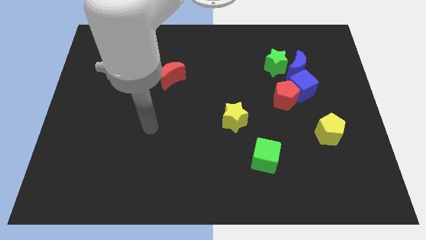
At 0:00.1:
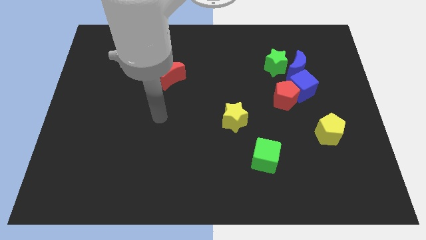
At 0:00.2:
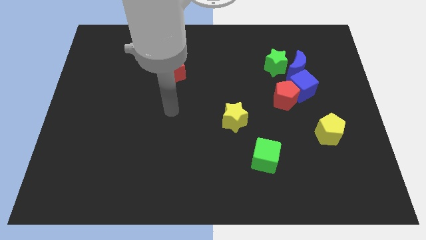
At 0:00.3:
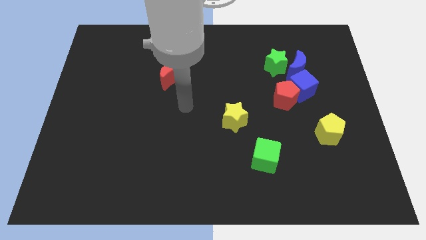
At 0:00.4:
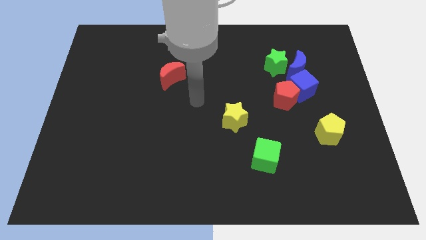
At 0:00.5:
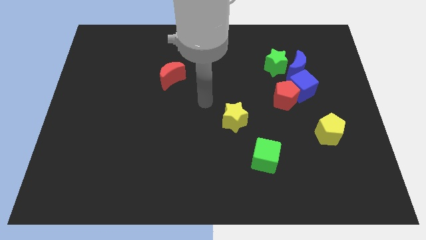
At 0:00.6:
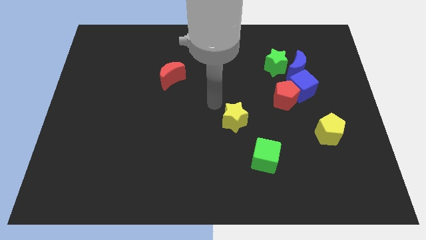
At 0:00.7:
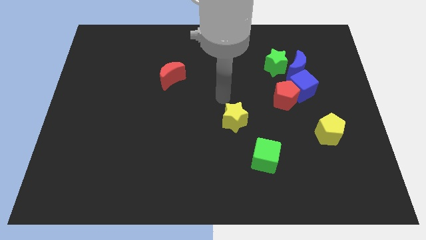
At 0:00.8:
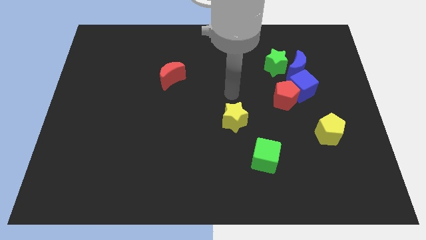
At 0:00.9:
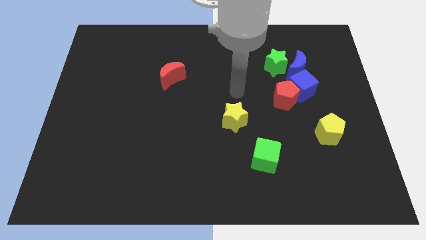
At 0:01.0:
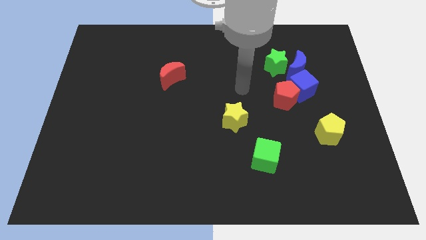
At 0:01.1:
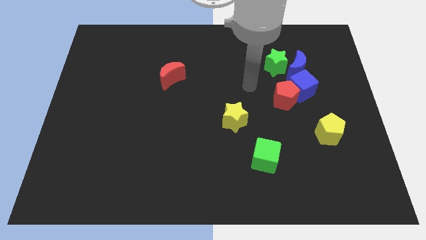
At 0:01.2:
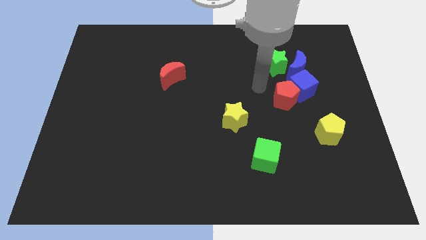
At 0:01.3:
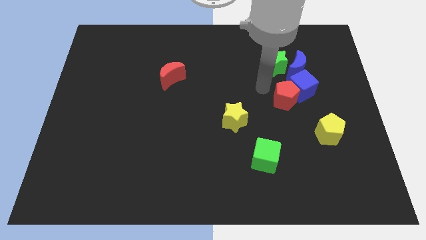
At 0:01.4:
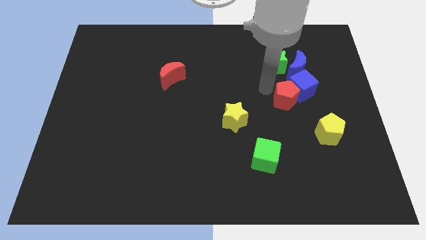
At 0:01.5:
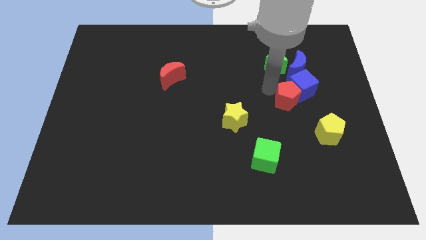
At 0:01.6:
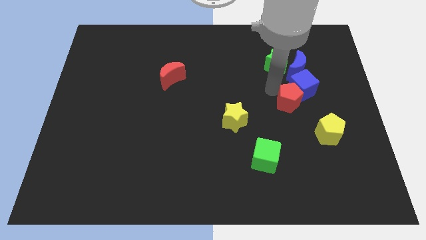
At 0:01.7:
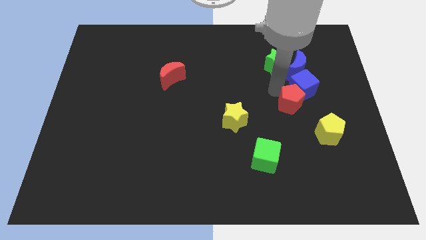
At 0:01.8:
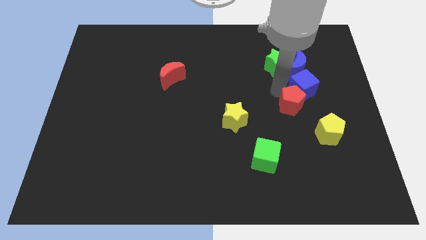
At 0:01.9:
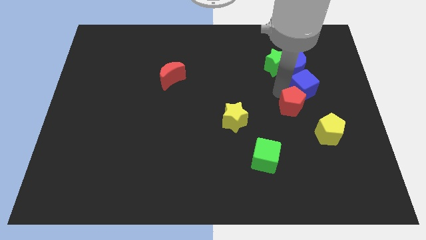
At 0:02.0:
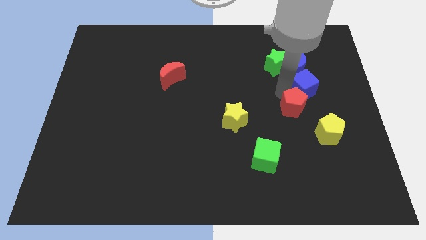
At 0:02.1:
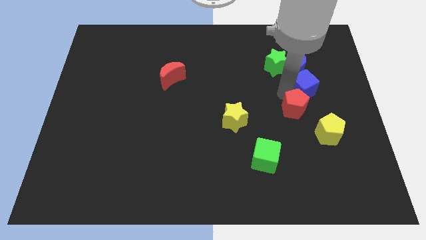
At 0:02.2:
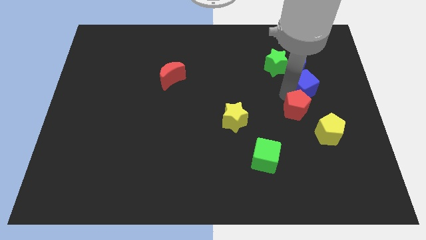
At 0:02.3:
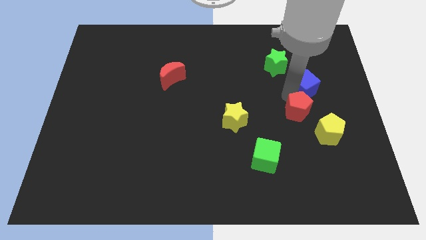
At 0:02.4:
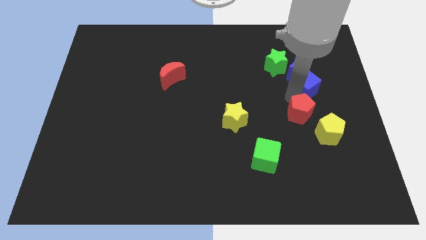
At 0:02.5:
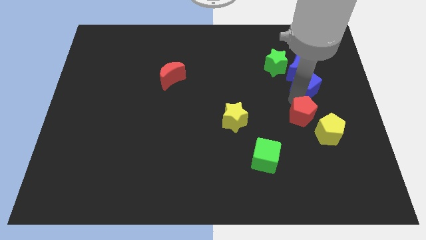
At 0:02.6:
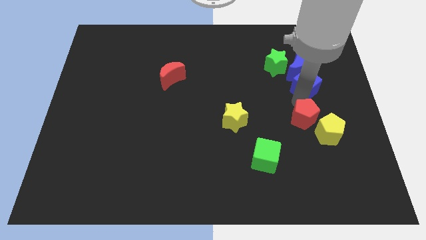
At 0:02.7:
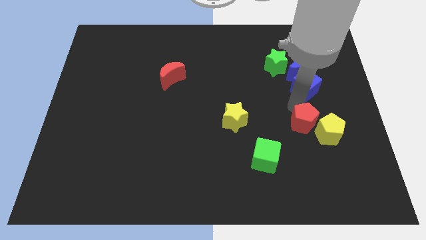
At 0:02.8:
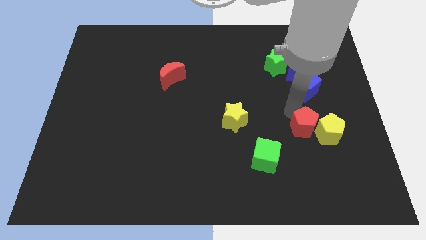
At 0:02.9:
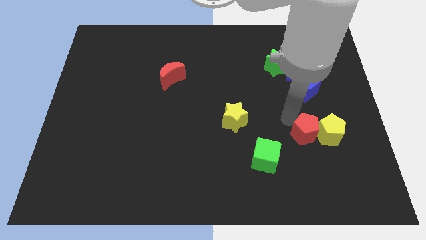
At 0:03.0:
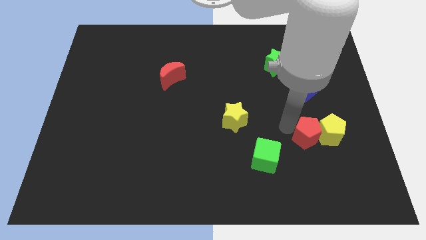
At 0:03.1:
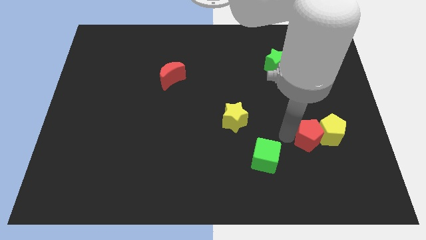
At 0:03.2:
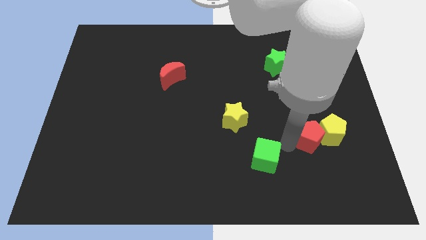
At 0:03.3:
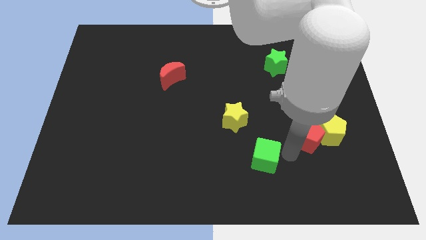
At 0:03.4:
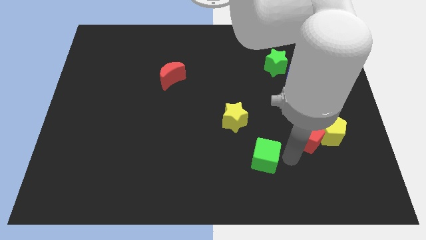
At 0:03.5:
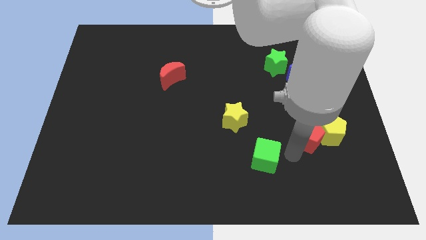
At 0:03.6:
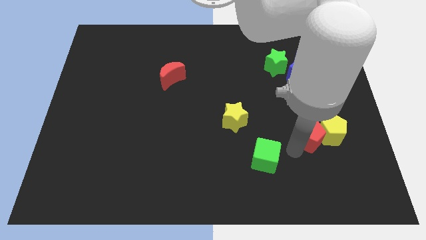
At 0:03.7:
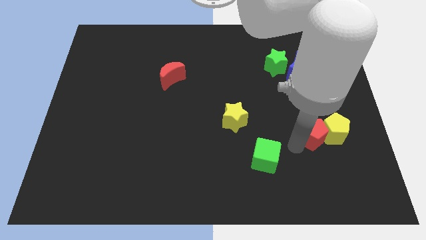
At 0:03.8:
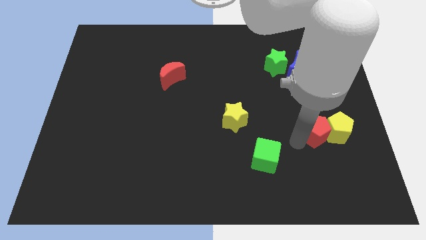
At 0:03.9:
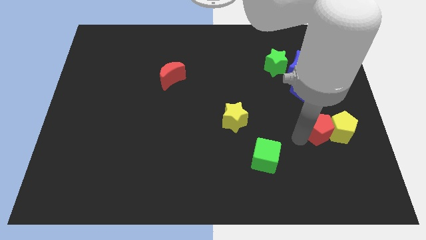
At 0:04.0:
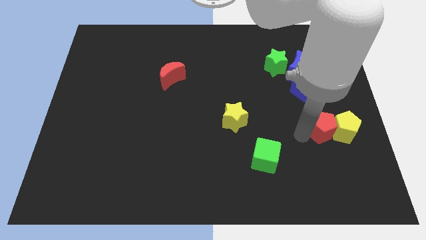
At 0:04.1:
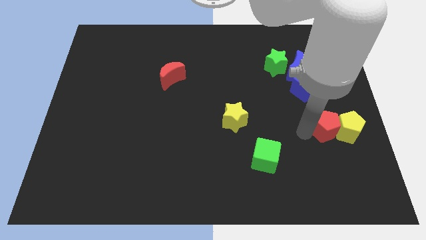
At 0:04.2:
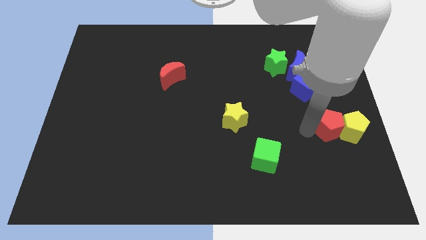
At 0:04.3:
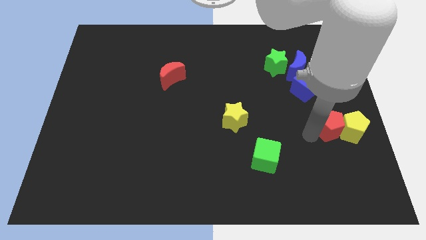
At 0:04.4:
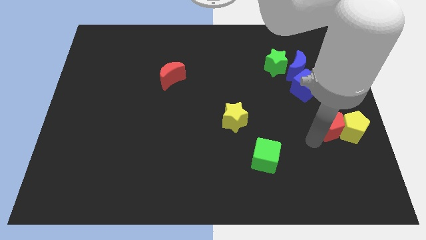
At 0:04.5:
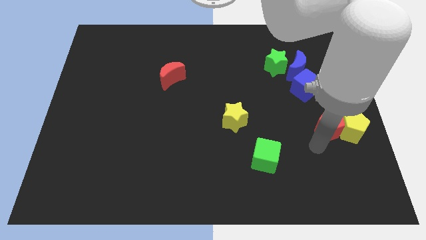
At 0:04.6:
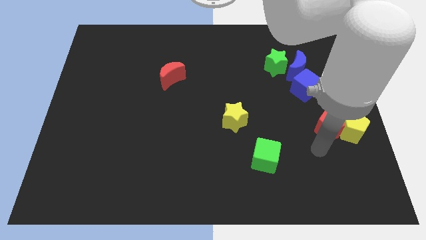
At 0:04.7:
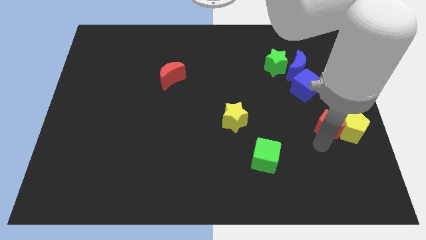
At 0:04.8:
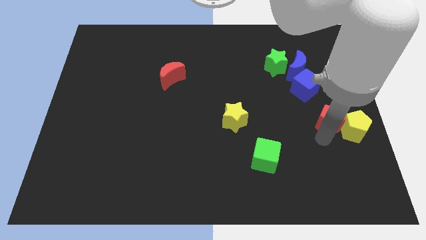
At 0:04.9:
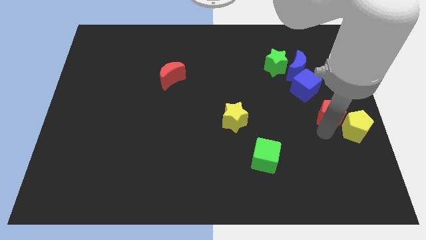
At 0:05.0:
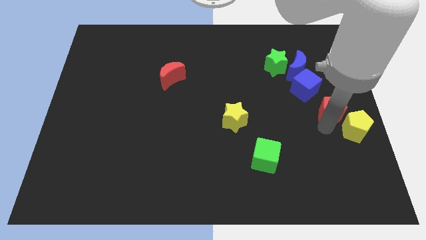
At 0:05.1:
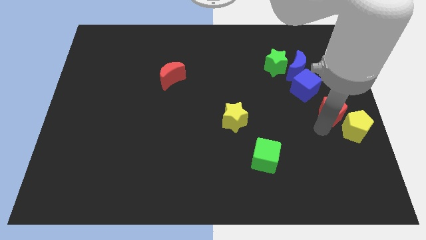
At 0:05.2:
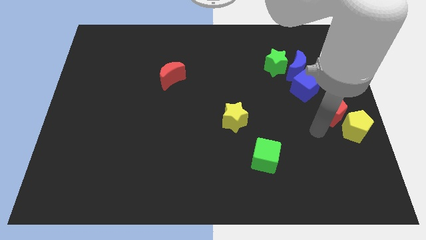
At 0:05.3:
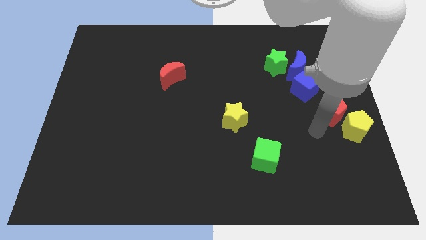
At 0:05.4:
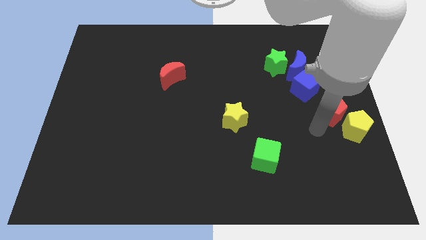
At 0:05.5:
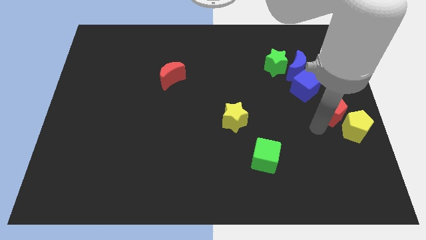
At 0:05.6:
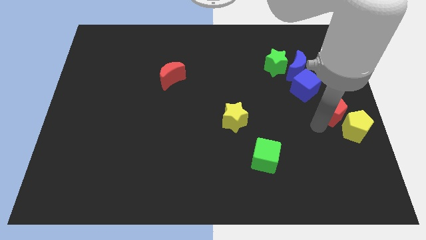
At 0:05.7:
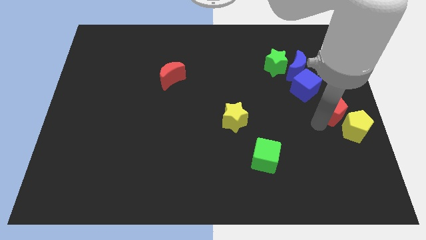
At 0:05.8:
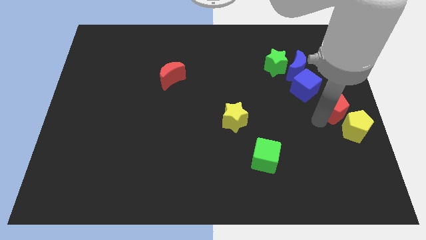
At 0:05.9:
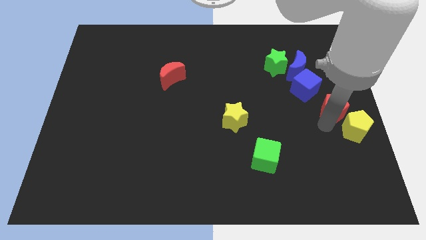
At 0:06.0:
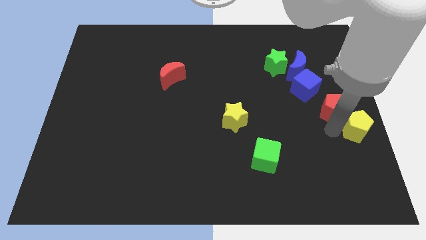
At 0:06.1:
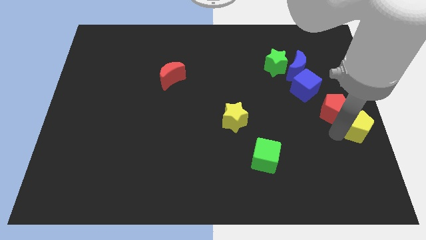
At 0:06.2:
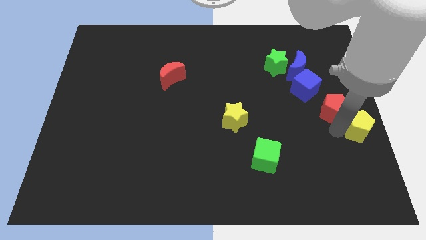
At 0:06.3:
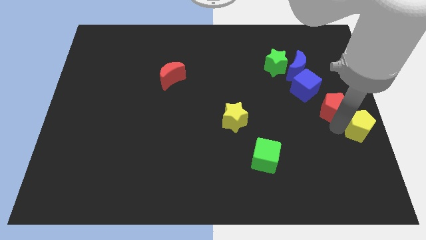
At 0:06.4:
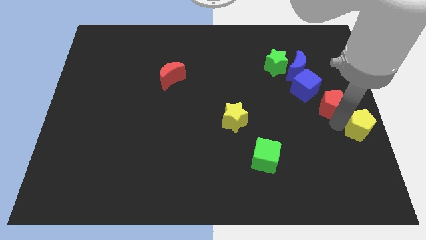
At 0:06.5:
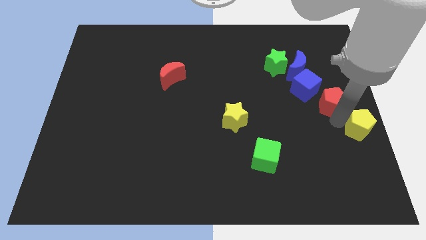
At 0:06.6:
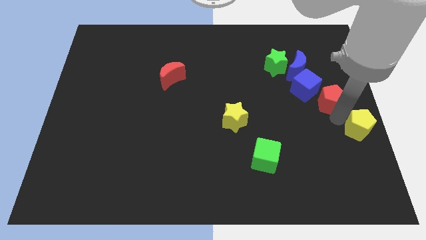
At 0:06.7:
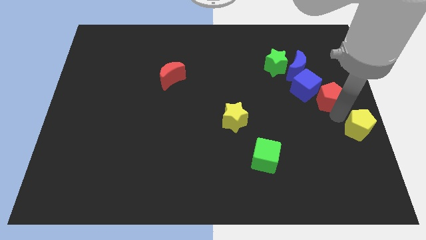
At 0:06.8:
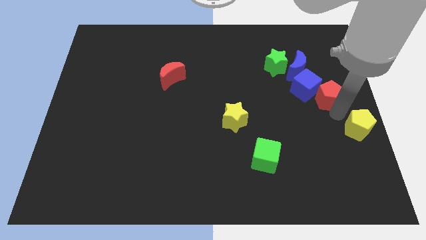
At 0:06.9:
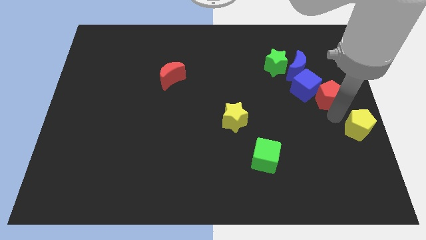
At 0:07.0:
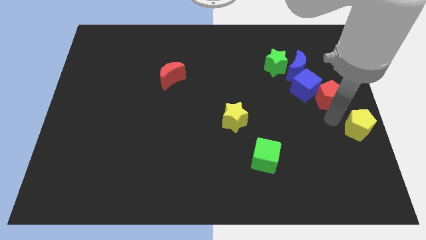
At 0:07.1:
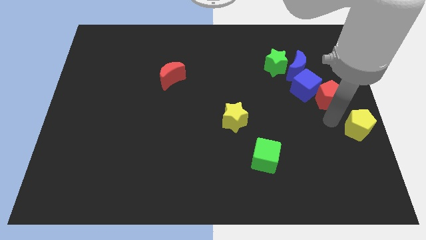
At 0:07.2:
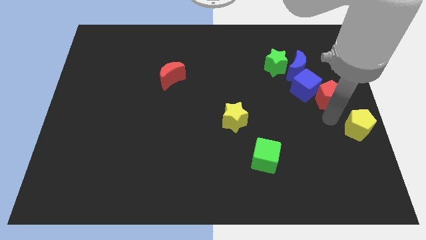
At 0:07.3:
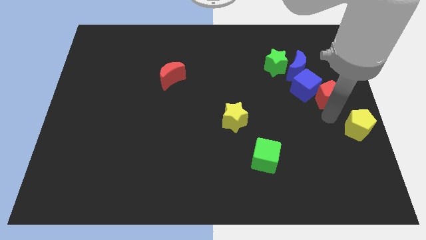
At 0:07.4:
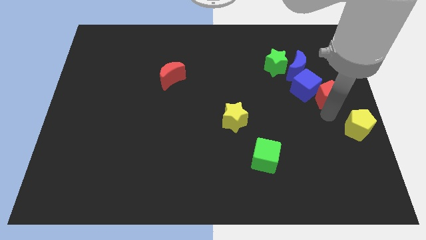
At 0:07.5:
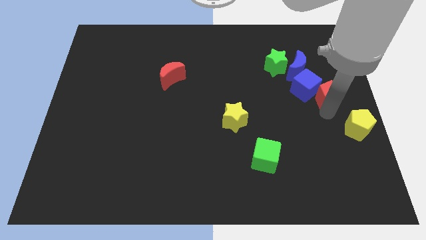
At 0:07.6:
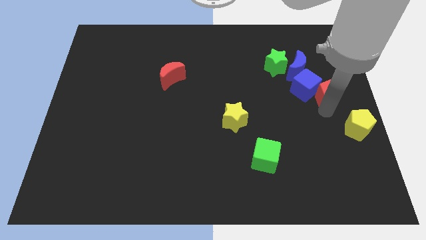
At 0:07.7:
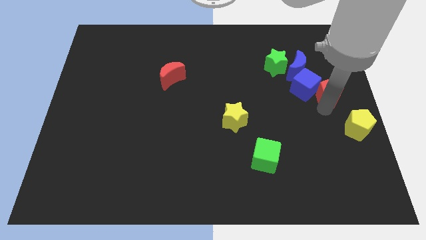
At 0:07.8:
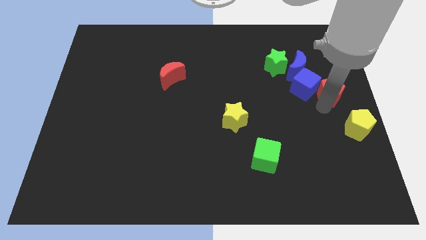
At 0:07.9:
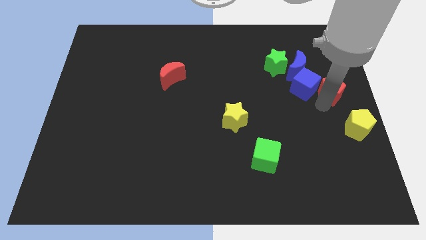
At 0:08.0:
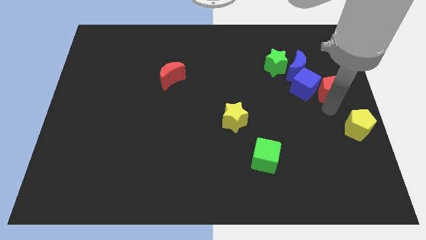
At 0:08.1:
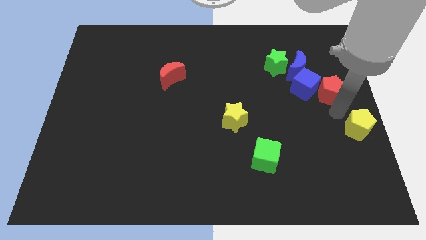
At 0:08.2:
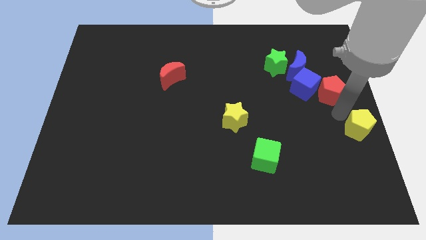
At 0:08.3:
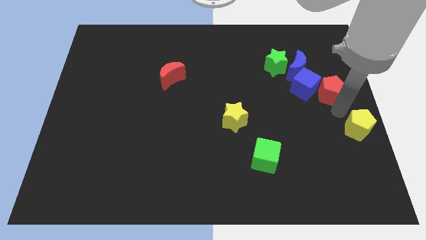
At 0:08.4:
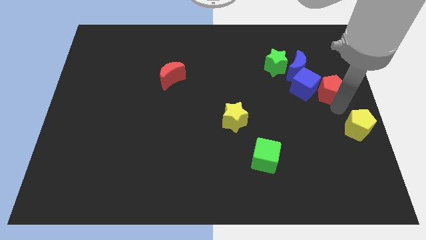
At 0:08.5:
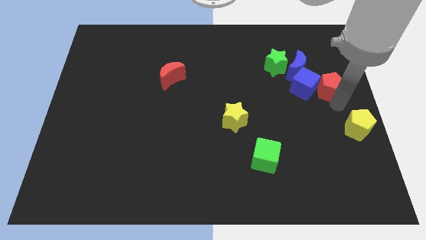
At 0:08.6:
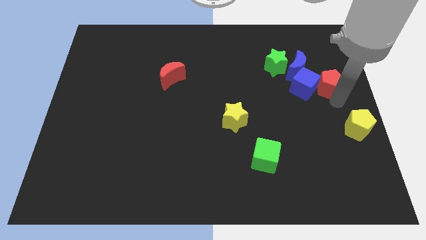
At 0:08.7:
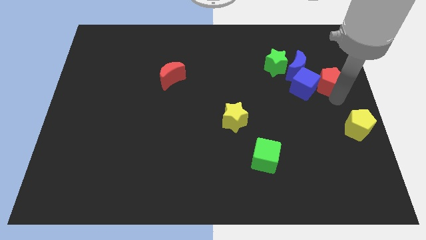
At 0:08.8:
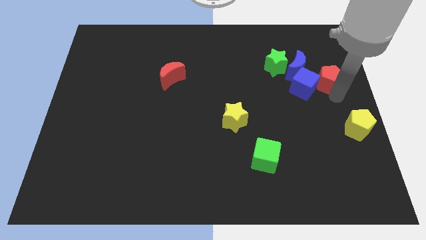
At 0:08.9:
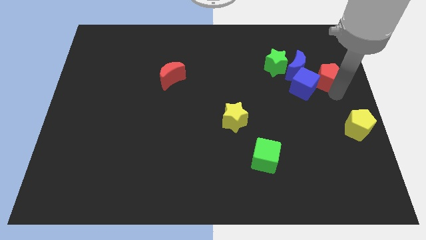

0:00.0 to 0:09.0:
slide the red pentagon right of the green star
